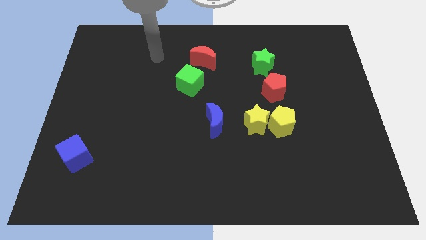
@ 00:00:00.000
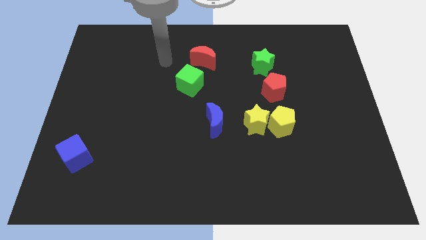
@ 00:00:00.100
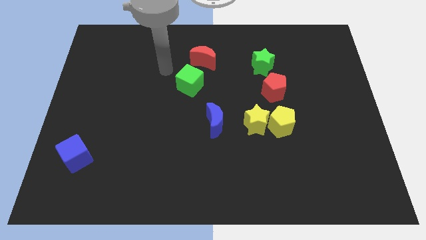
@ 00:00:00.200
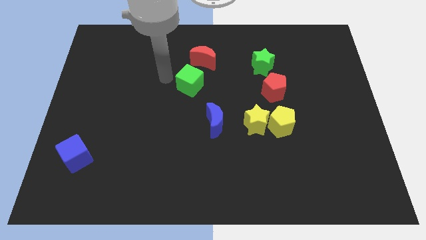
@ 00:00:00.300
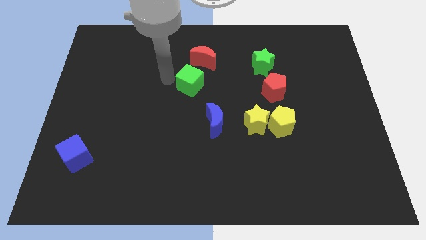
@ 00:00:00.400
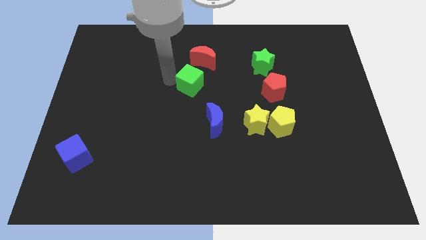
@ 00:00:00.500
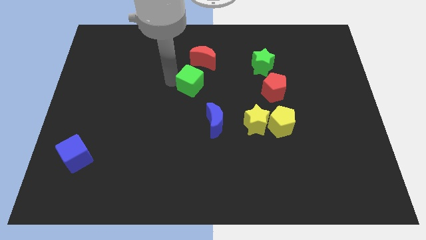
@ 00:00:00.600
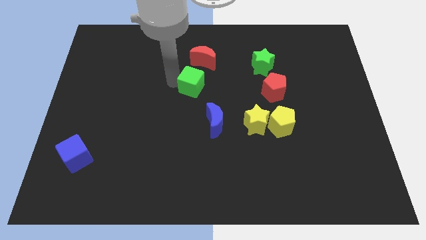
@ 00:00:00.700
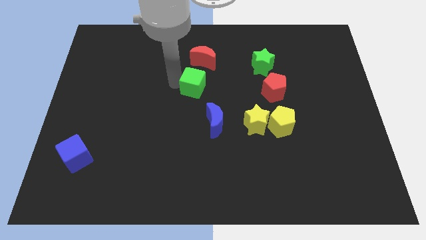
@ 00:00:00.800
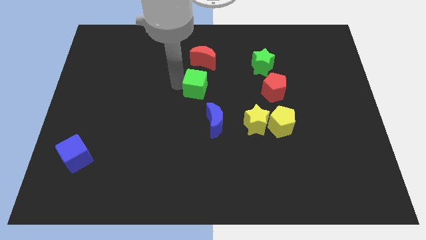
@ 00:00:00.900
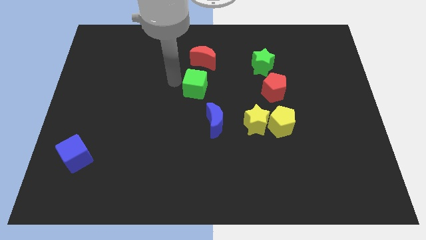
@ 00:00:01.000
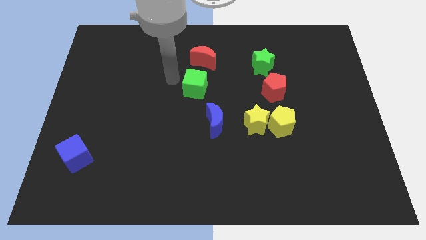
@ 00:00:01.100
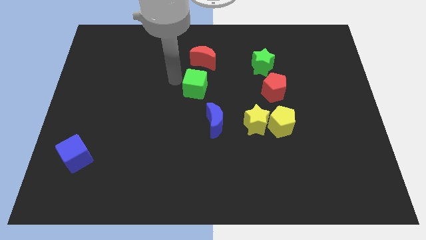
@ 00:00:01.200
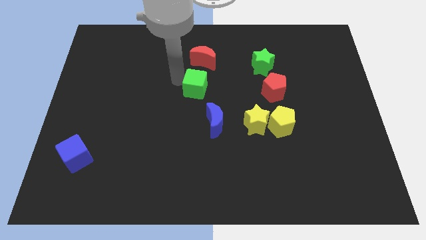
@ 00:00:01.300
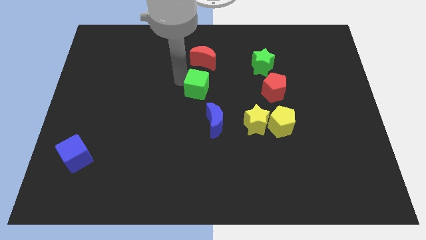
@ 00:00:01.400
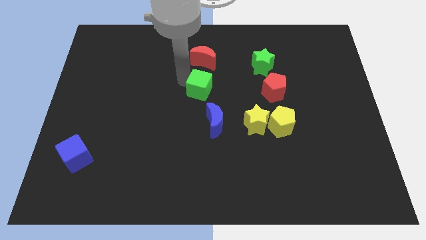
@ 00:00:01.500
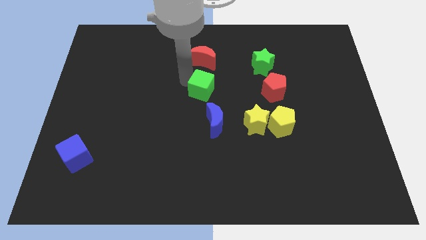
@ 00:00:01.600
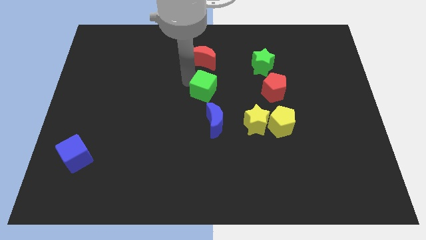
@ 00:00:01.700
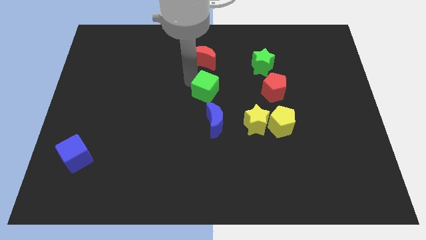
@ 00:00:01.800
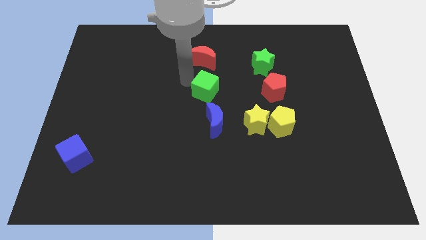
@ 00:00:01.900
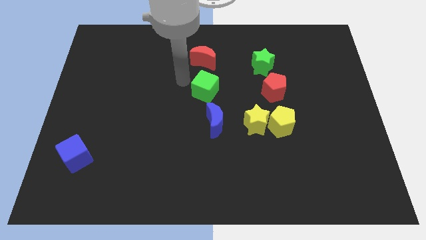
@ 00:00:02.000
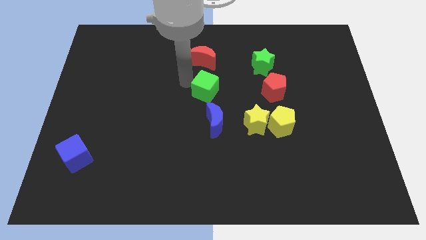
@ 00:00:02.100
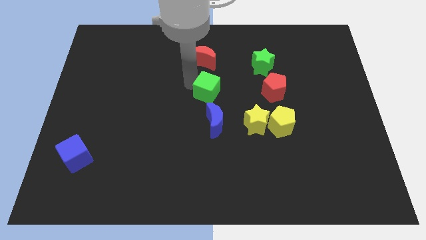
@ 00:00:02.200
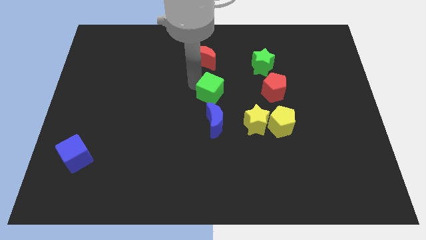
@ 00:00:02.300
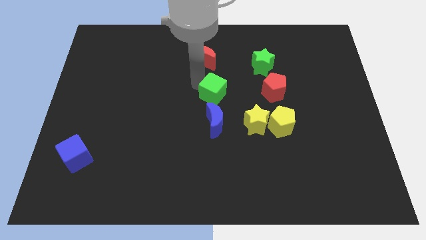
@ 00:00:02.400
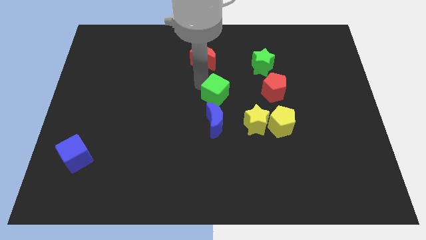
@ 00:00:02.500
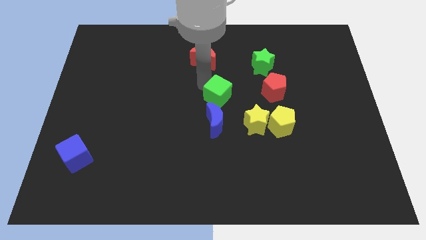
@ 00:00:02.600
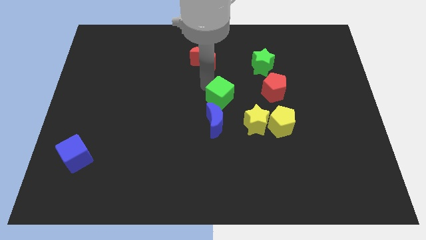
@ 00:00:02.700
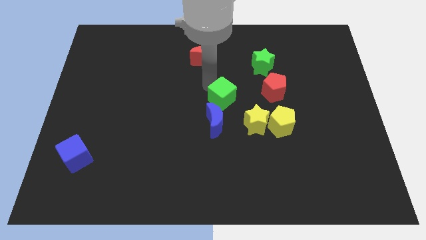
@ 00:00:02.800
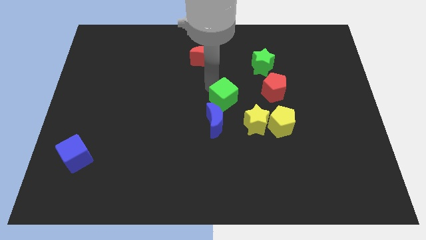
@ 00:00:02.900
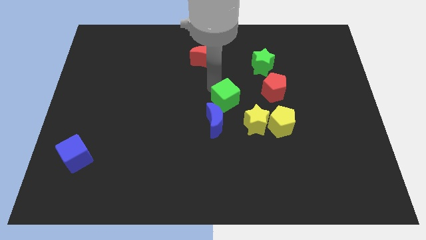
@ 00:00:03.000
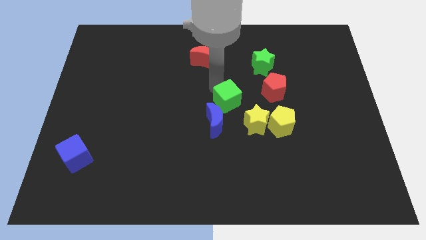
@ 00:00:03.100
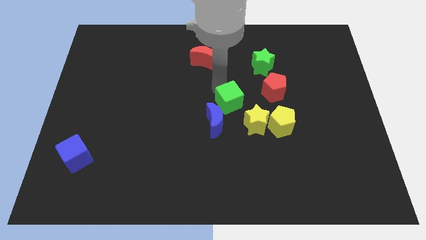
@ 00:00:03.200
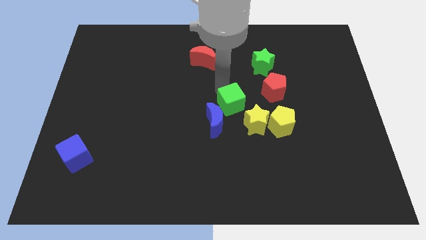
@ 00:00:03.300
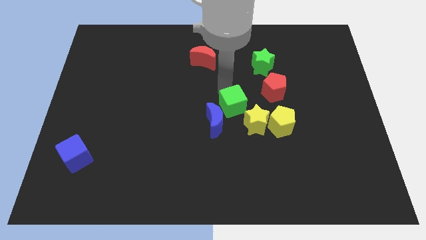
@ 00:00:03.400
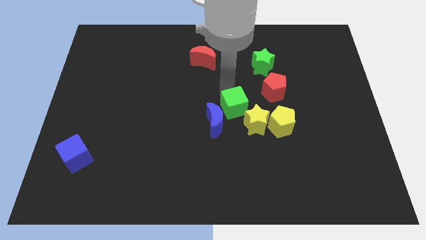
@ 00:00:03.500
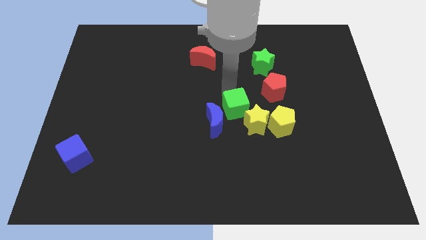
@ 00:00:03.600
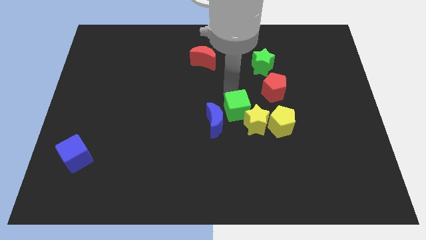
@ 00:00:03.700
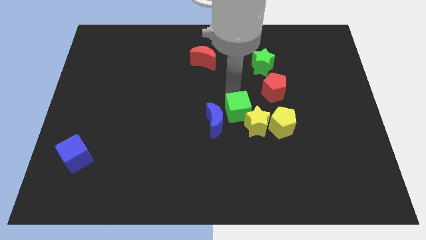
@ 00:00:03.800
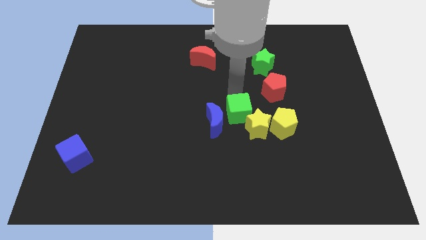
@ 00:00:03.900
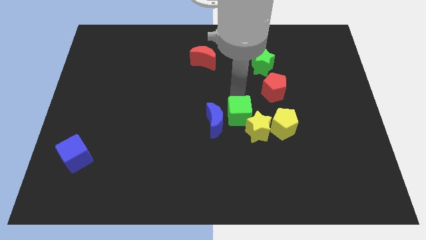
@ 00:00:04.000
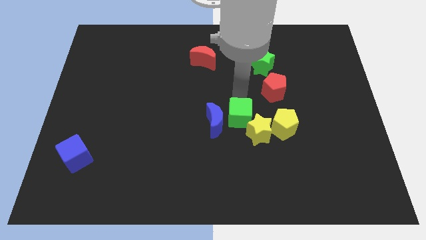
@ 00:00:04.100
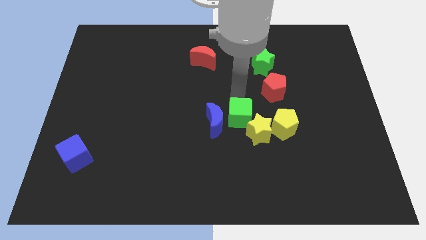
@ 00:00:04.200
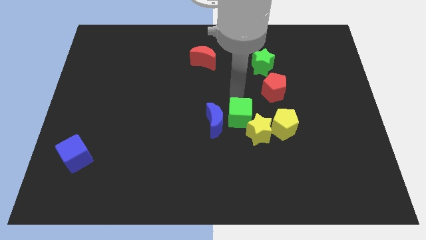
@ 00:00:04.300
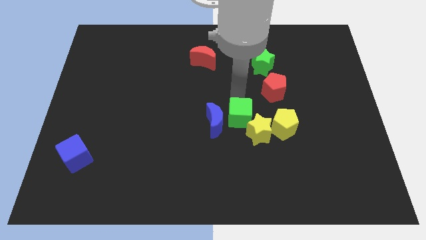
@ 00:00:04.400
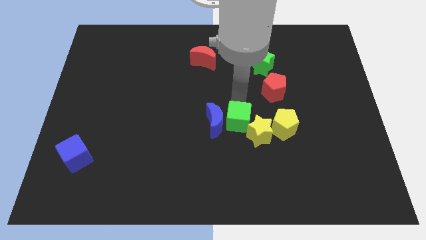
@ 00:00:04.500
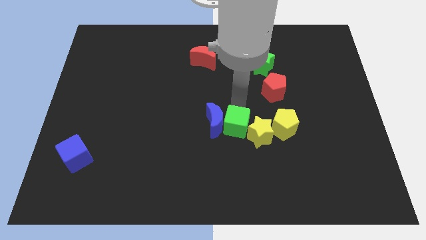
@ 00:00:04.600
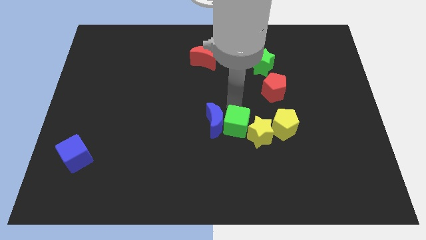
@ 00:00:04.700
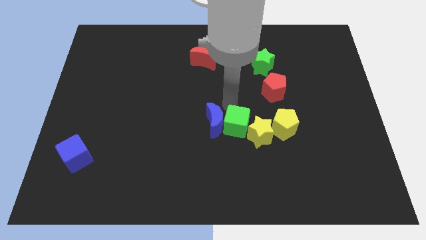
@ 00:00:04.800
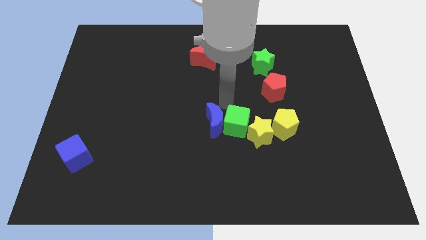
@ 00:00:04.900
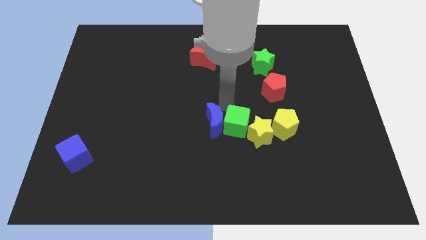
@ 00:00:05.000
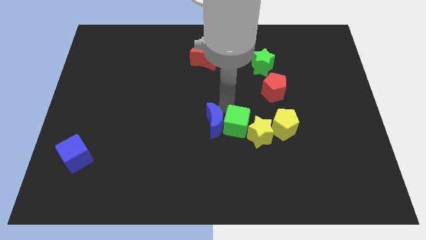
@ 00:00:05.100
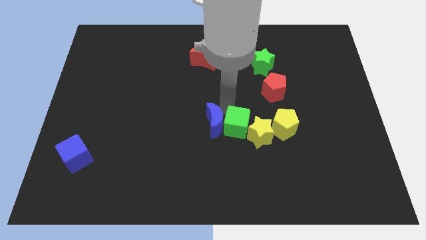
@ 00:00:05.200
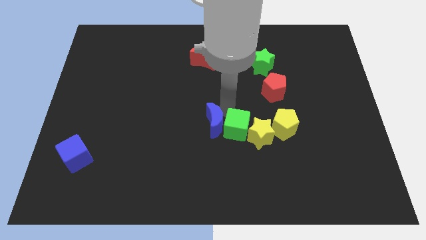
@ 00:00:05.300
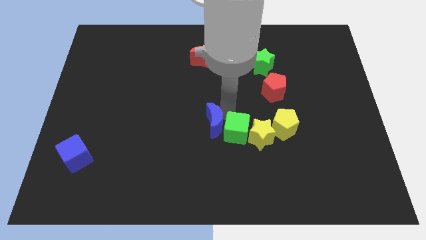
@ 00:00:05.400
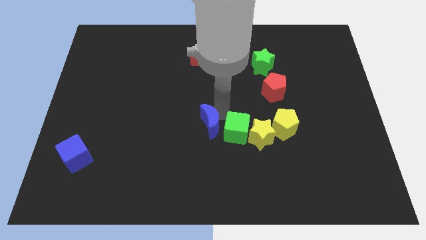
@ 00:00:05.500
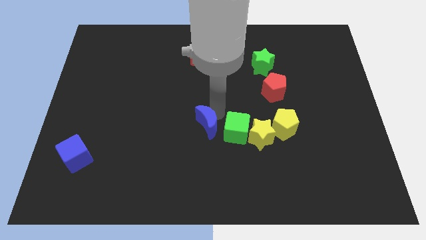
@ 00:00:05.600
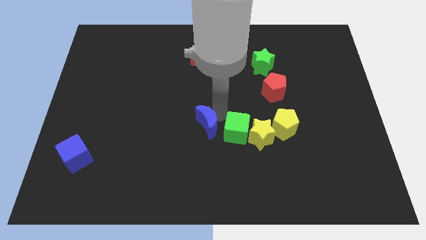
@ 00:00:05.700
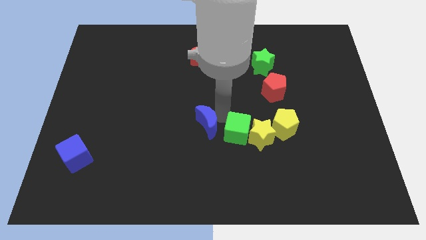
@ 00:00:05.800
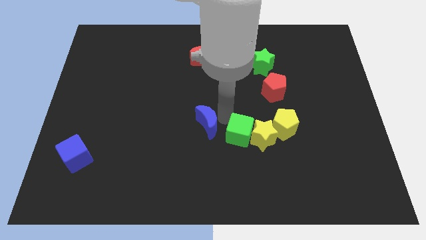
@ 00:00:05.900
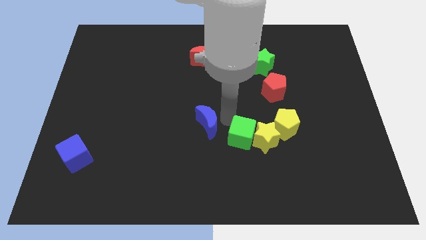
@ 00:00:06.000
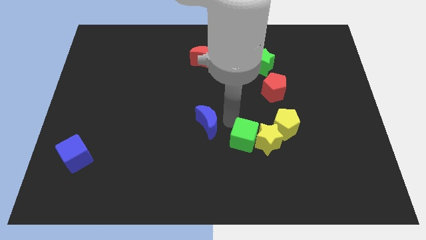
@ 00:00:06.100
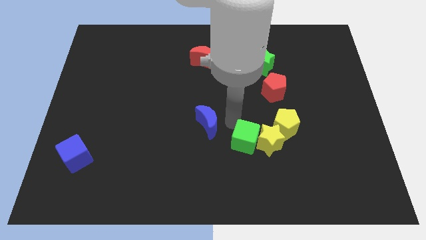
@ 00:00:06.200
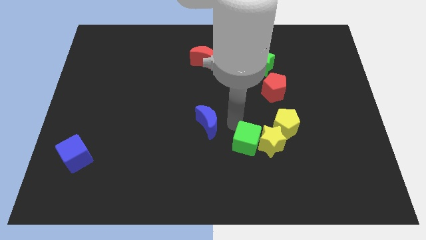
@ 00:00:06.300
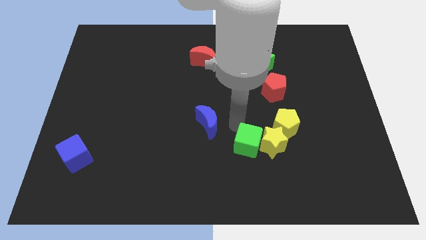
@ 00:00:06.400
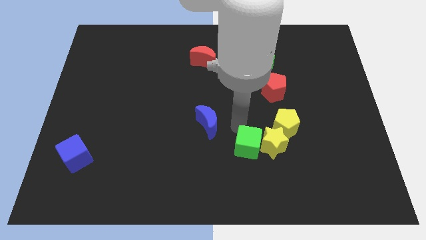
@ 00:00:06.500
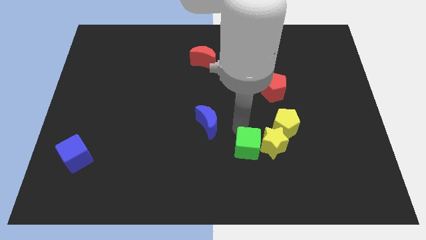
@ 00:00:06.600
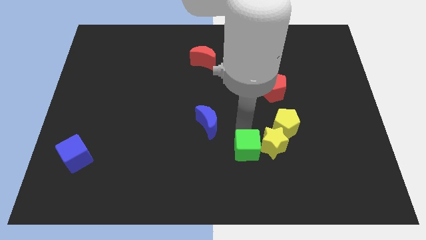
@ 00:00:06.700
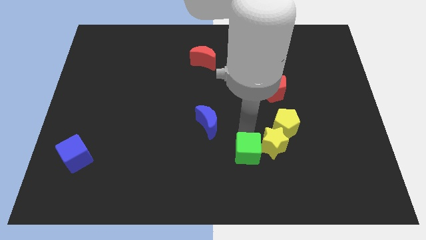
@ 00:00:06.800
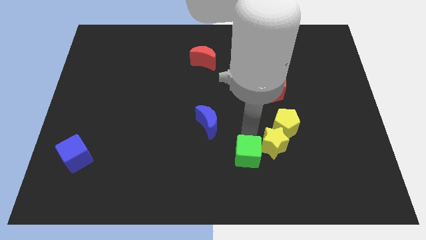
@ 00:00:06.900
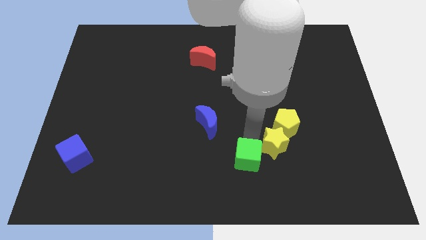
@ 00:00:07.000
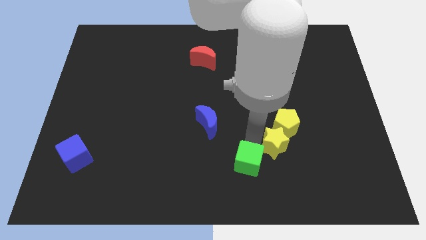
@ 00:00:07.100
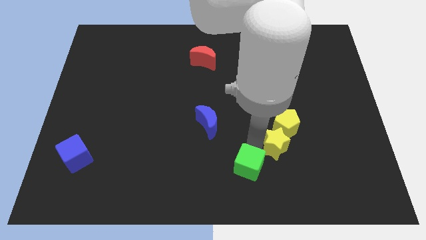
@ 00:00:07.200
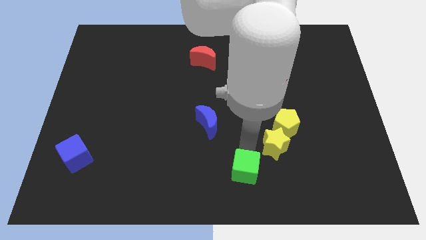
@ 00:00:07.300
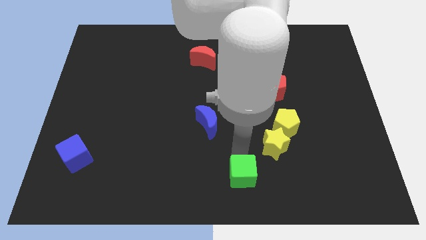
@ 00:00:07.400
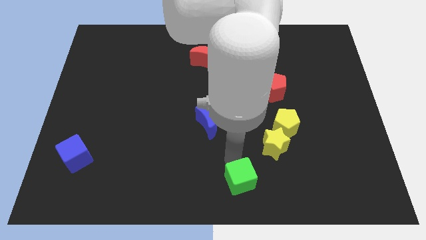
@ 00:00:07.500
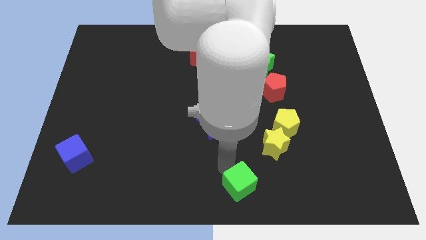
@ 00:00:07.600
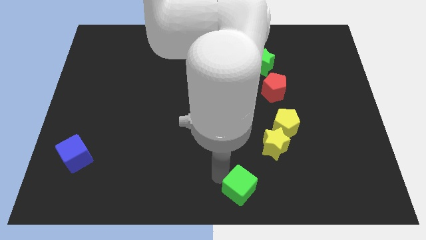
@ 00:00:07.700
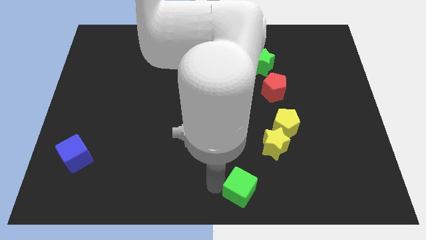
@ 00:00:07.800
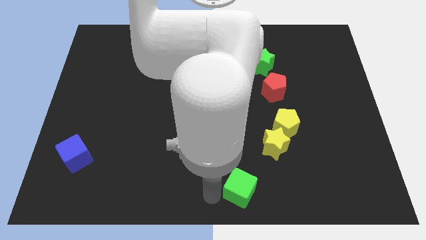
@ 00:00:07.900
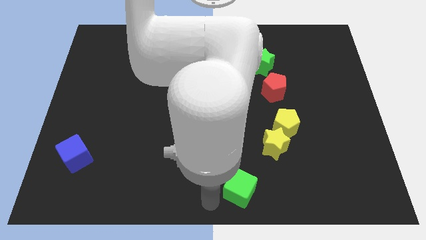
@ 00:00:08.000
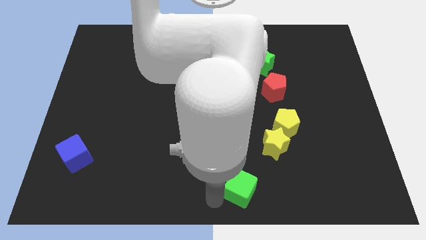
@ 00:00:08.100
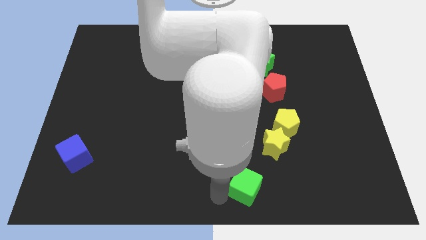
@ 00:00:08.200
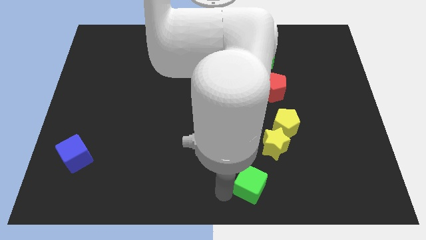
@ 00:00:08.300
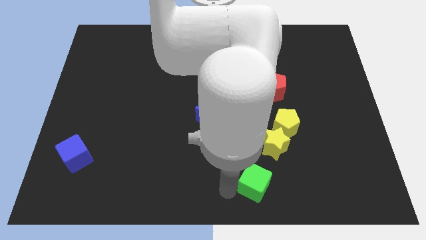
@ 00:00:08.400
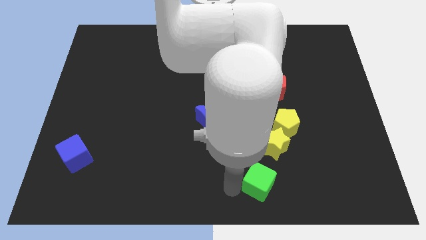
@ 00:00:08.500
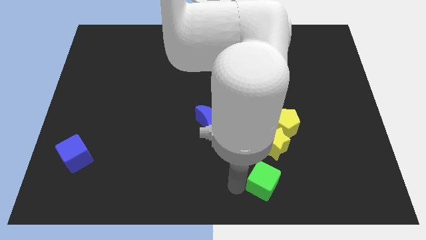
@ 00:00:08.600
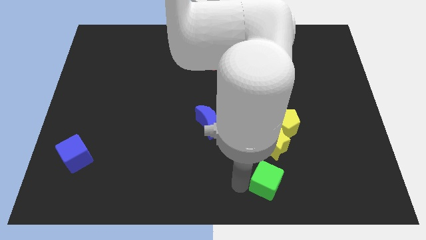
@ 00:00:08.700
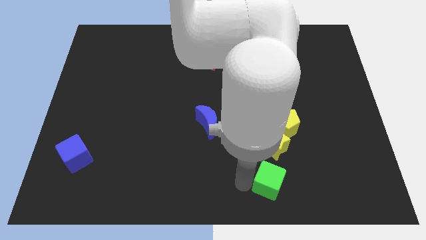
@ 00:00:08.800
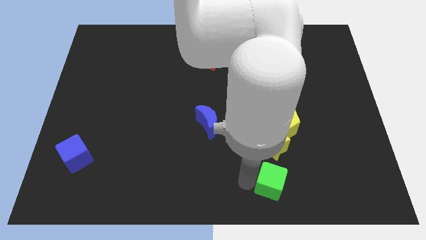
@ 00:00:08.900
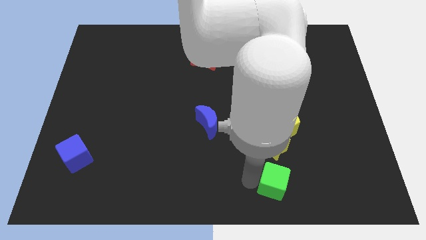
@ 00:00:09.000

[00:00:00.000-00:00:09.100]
put the green cube below the yellow pentagon
